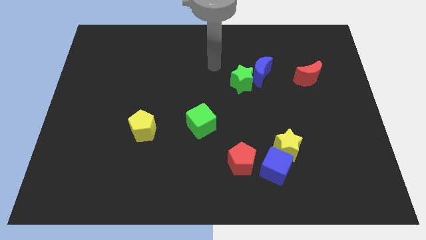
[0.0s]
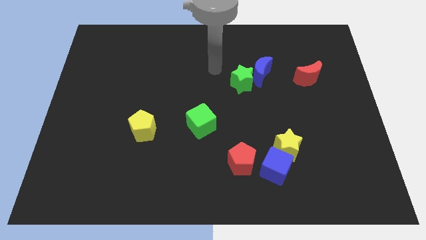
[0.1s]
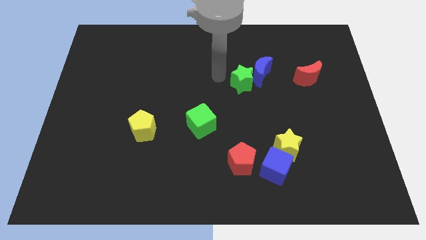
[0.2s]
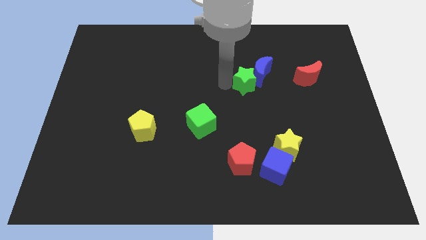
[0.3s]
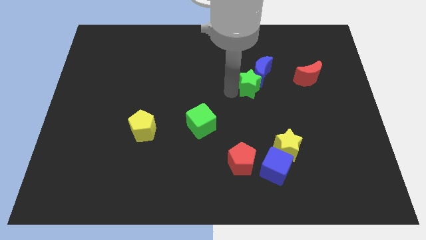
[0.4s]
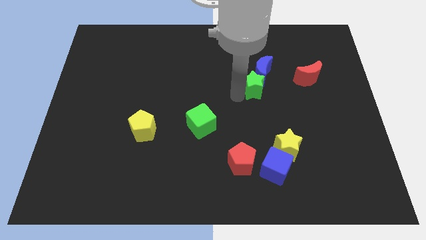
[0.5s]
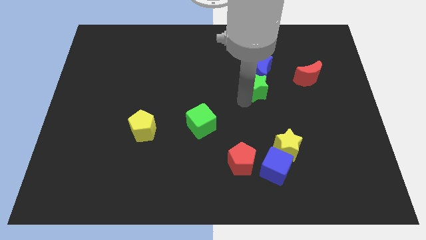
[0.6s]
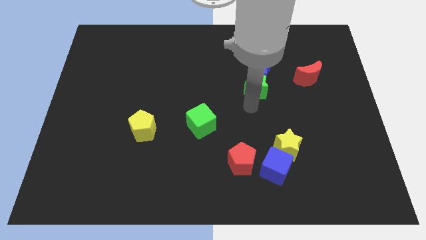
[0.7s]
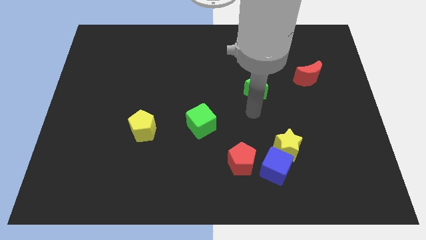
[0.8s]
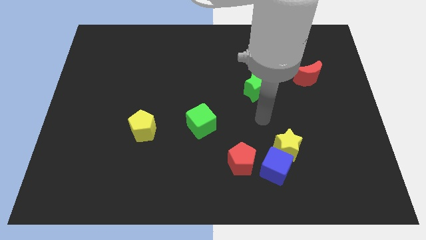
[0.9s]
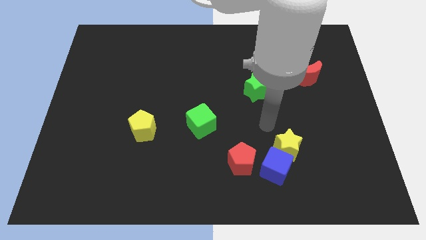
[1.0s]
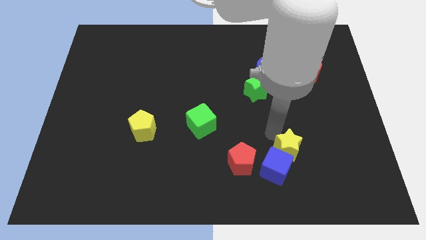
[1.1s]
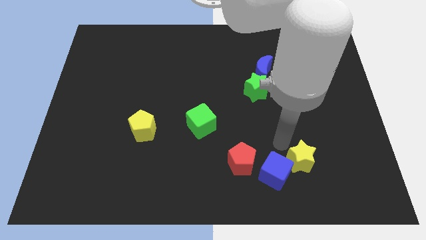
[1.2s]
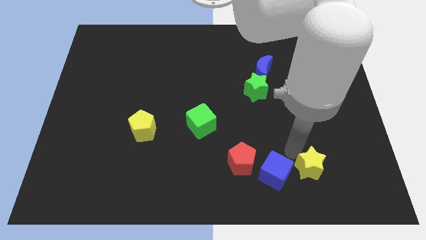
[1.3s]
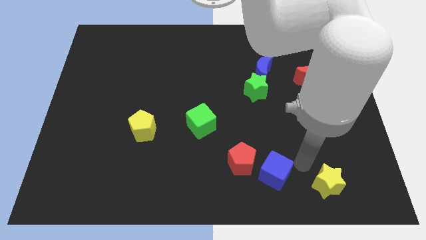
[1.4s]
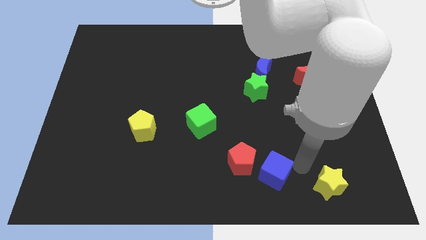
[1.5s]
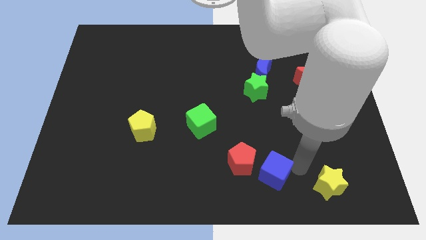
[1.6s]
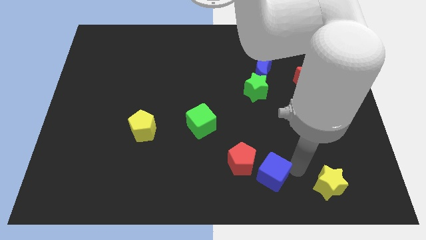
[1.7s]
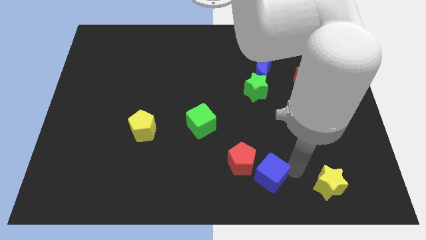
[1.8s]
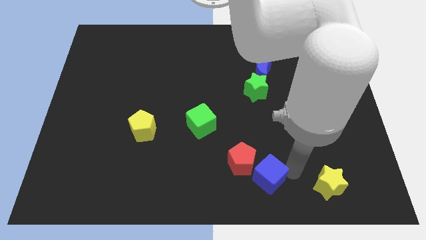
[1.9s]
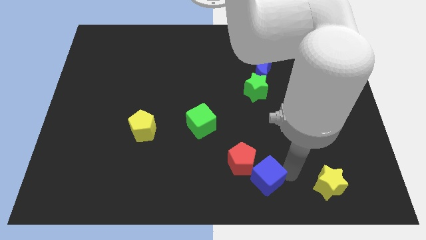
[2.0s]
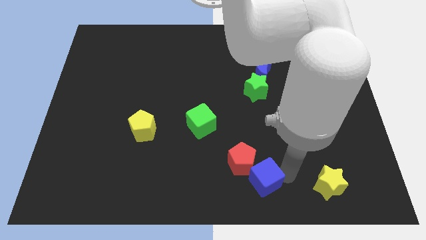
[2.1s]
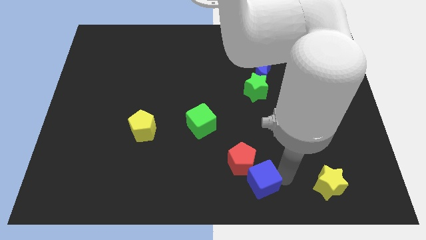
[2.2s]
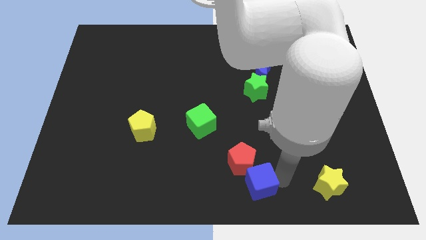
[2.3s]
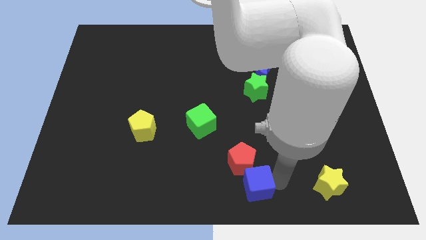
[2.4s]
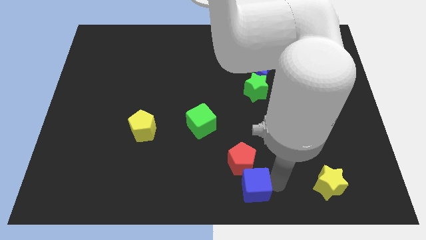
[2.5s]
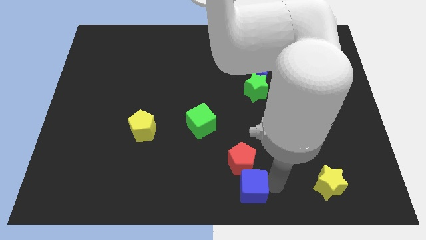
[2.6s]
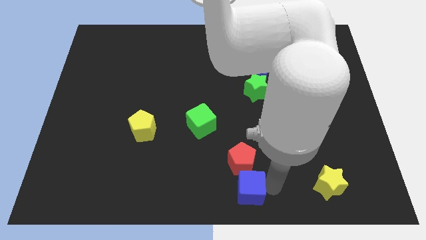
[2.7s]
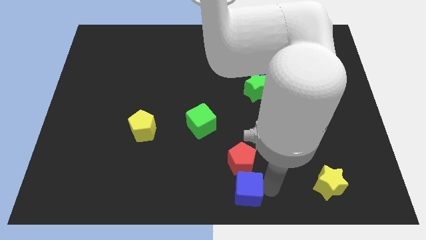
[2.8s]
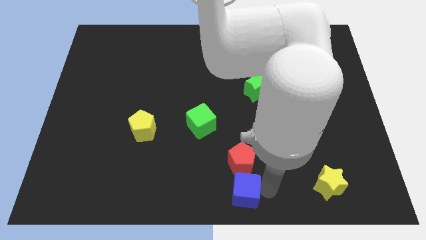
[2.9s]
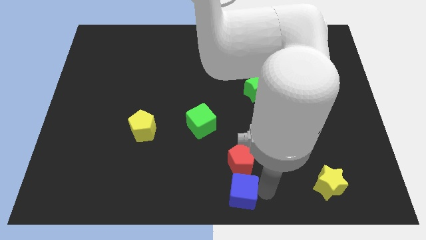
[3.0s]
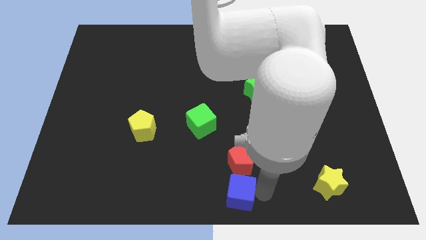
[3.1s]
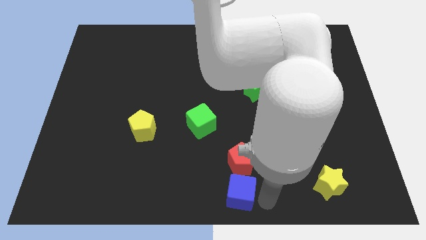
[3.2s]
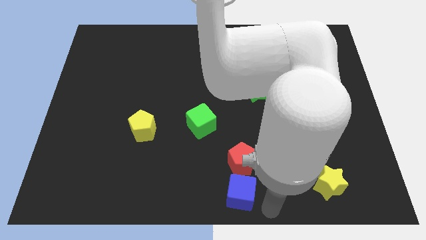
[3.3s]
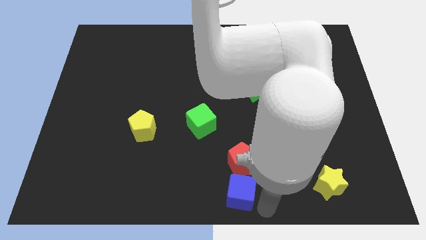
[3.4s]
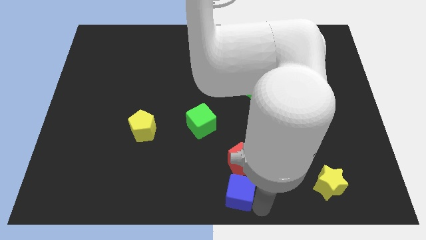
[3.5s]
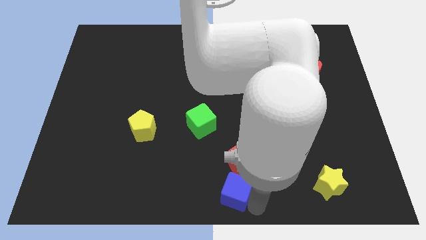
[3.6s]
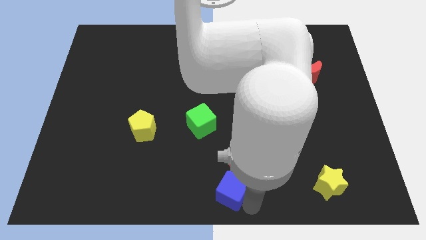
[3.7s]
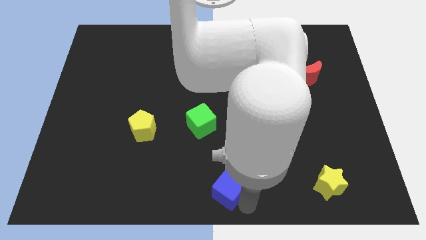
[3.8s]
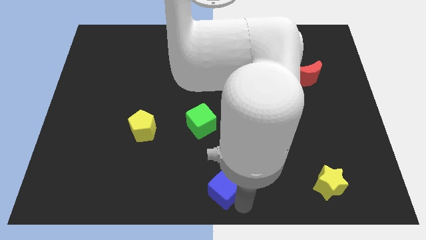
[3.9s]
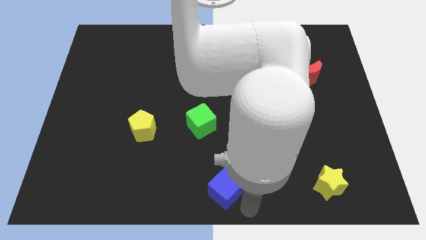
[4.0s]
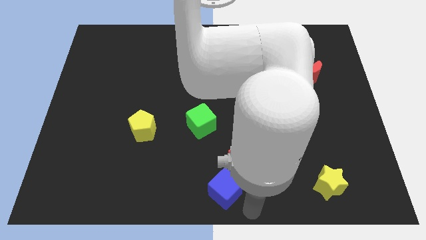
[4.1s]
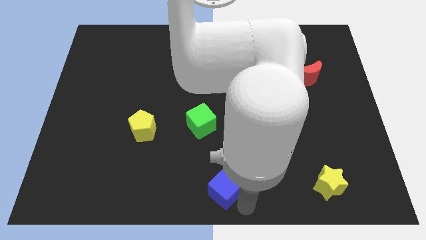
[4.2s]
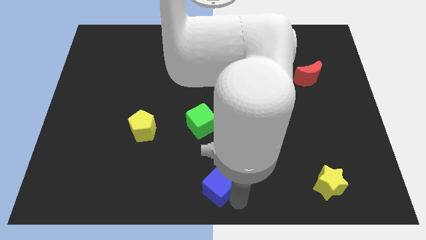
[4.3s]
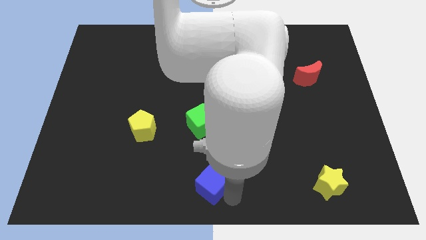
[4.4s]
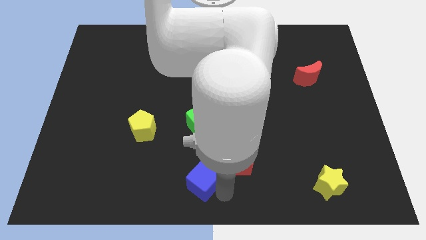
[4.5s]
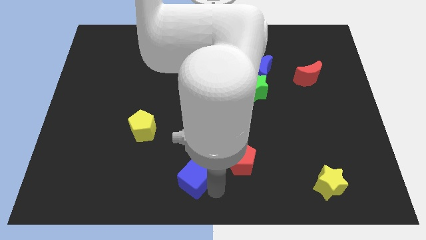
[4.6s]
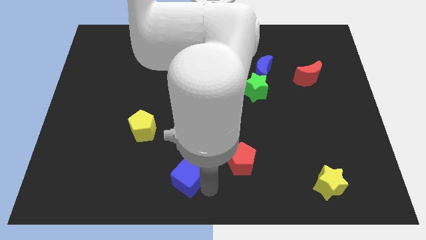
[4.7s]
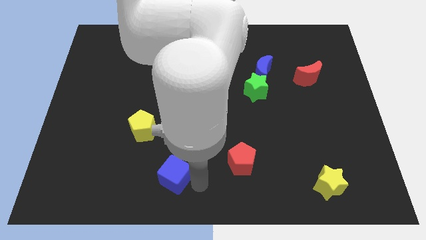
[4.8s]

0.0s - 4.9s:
slide the blue cube to the left

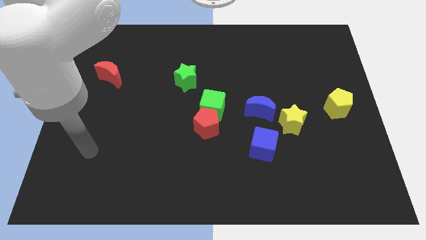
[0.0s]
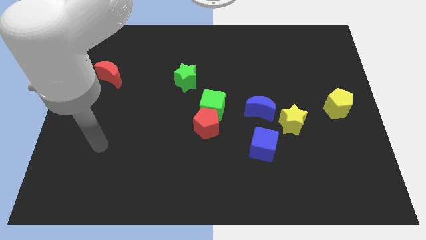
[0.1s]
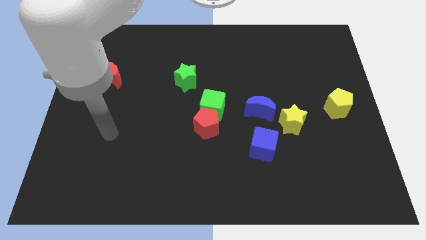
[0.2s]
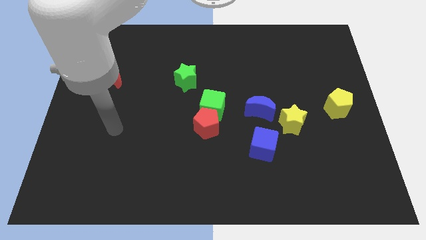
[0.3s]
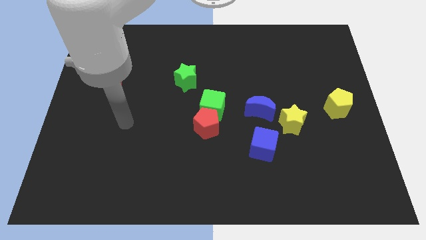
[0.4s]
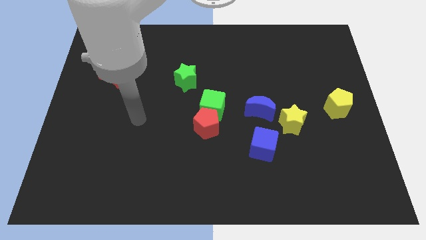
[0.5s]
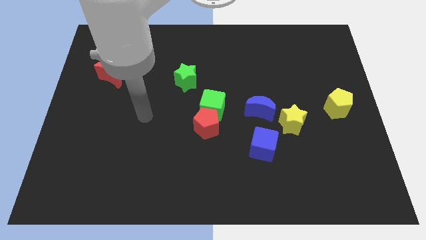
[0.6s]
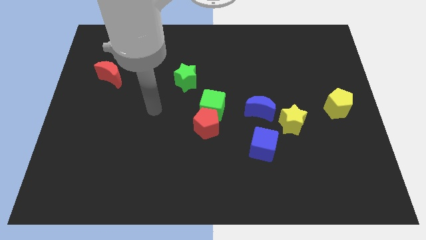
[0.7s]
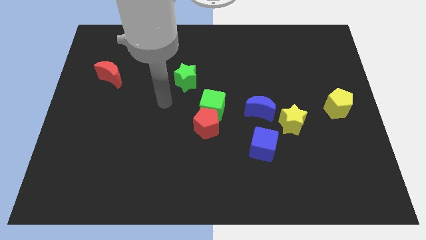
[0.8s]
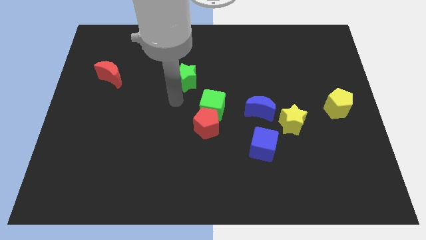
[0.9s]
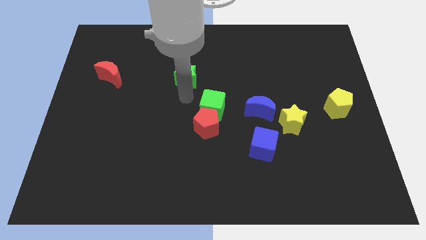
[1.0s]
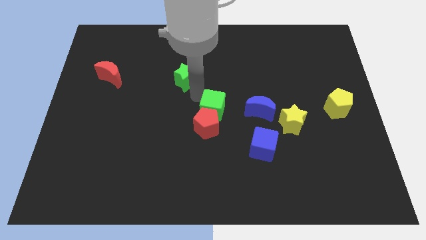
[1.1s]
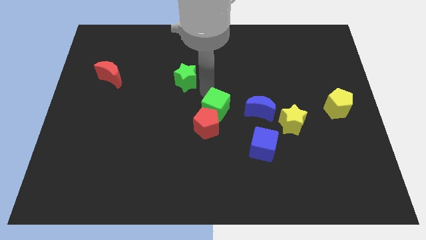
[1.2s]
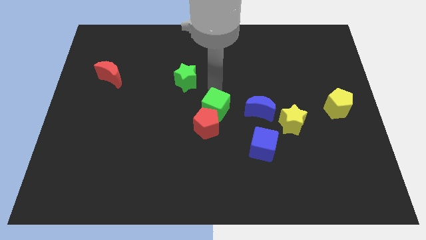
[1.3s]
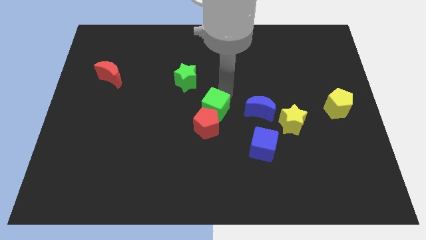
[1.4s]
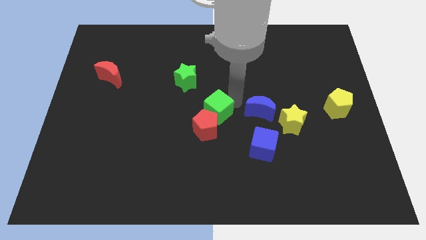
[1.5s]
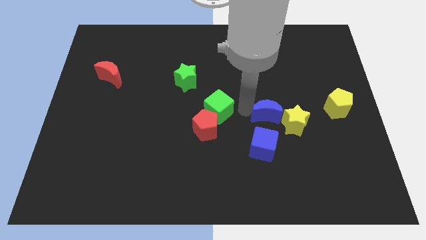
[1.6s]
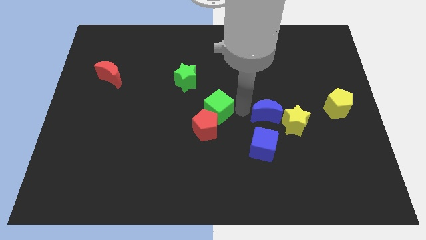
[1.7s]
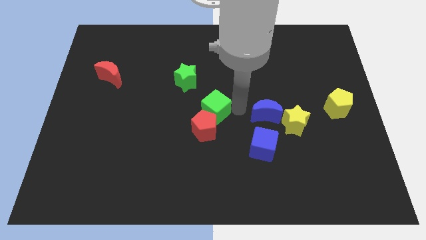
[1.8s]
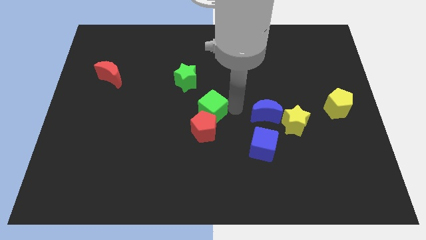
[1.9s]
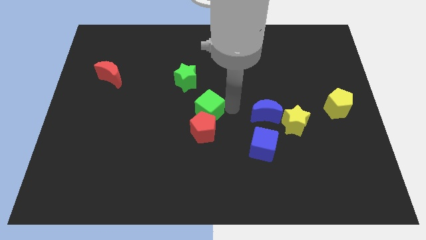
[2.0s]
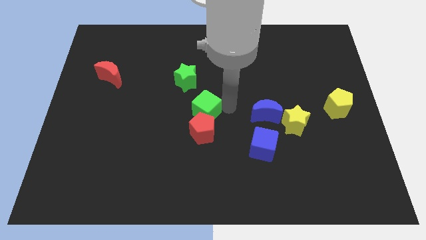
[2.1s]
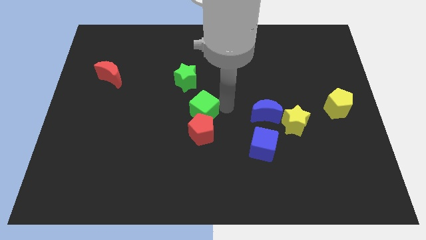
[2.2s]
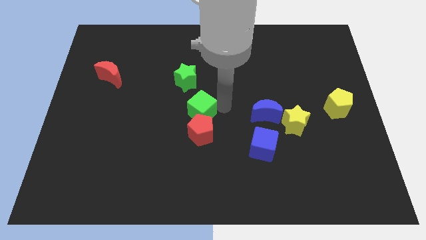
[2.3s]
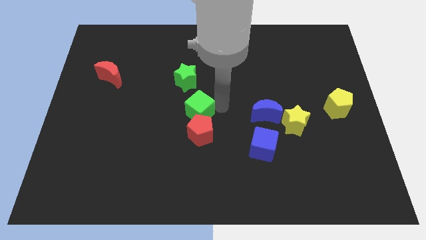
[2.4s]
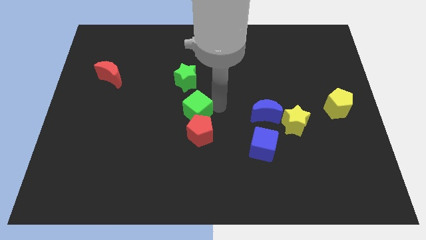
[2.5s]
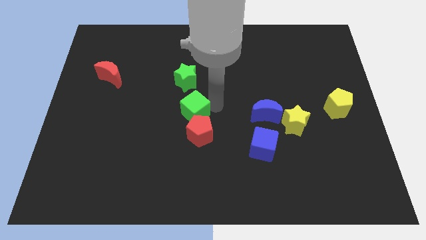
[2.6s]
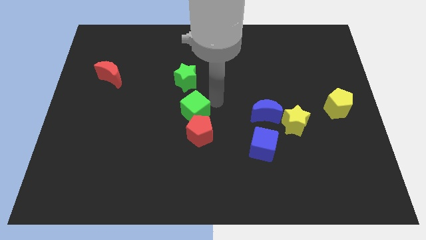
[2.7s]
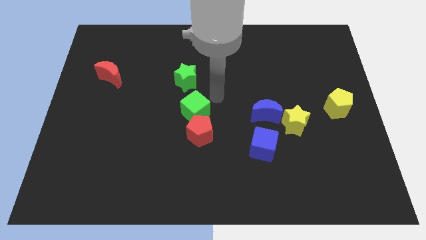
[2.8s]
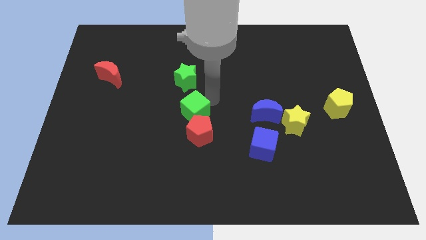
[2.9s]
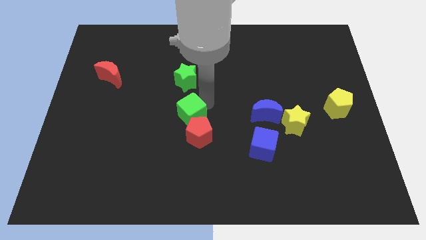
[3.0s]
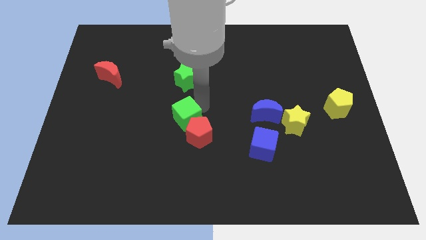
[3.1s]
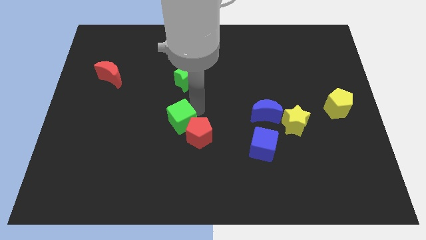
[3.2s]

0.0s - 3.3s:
slide the green cube diagonally downwards and left a little
